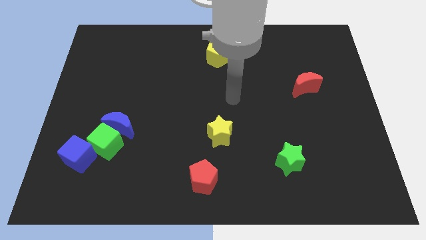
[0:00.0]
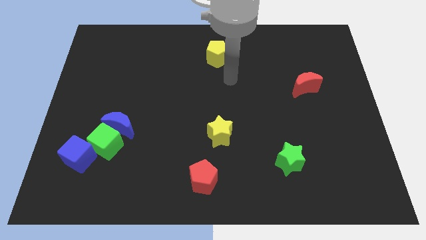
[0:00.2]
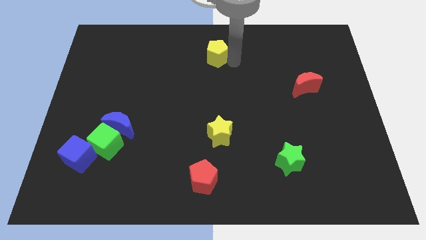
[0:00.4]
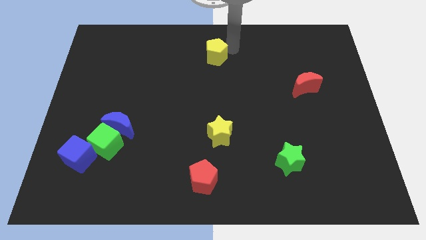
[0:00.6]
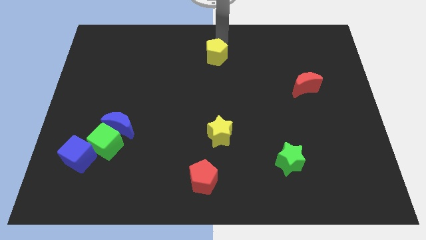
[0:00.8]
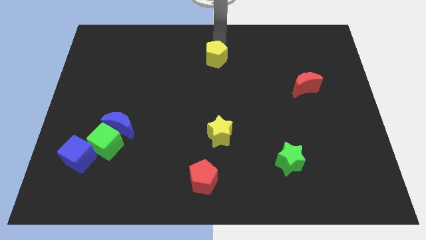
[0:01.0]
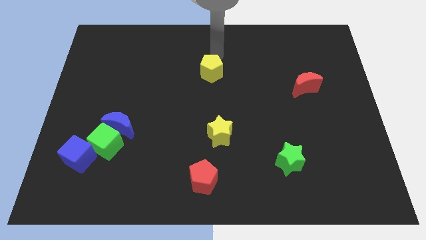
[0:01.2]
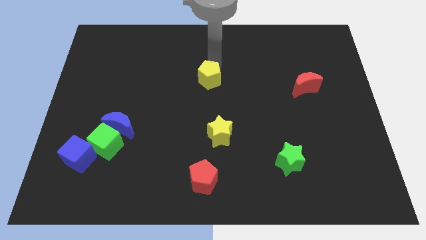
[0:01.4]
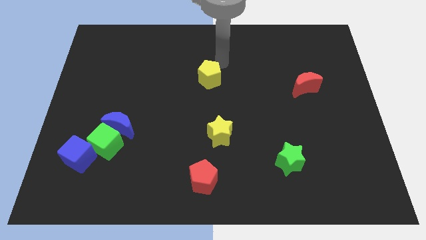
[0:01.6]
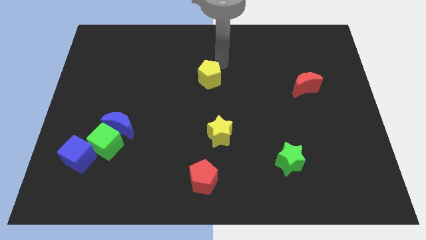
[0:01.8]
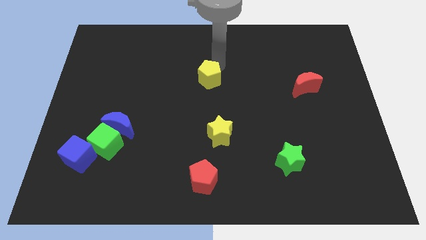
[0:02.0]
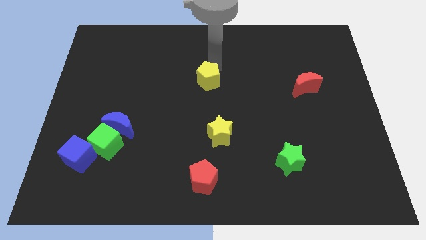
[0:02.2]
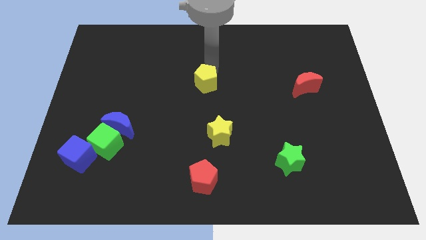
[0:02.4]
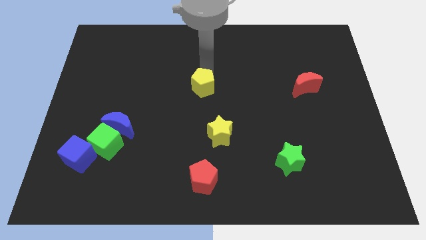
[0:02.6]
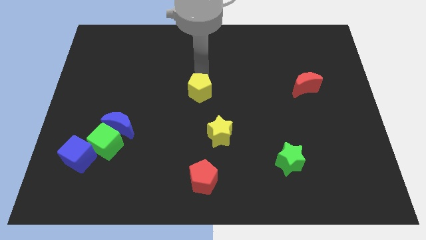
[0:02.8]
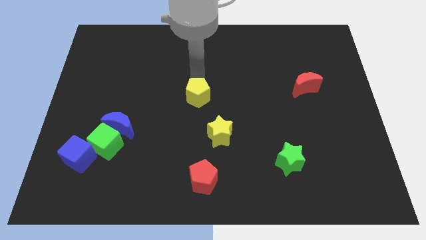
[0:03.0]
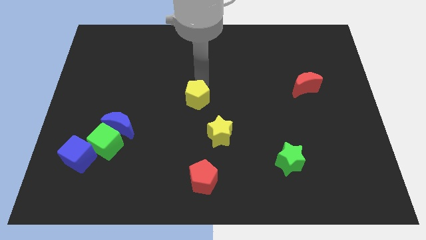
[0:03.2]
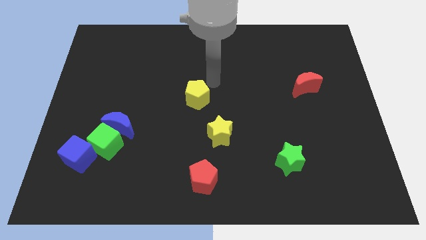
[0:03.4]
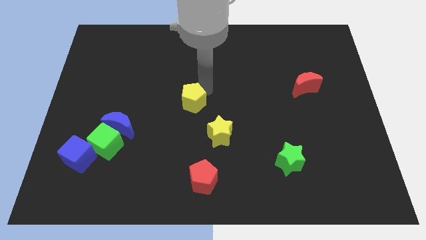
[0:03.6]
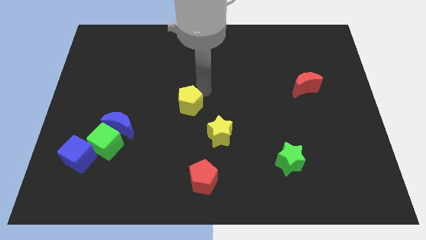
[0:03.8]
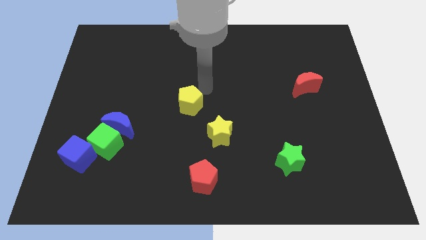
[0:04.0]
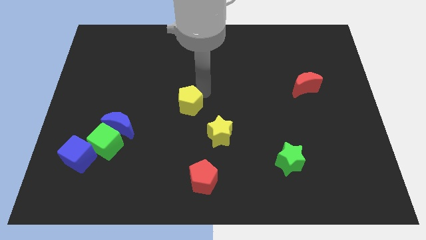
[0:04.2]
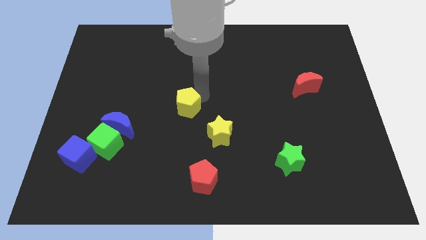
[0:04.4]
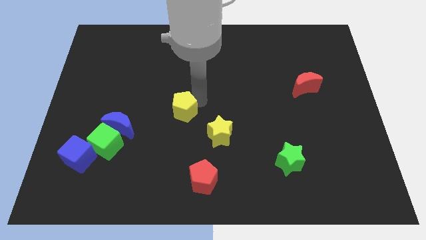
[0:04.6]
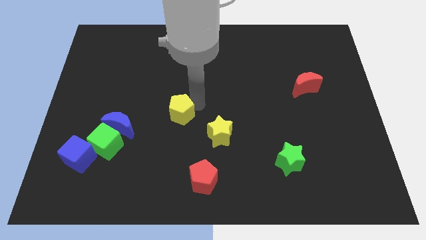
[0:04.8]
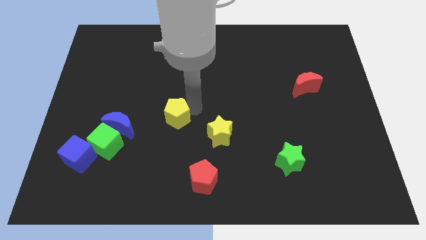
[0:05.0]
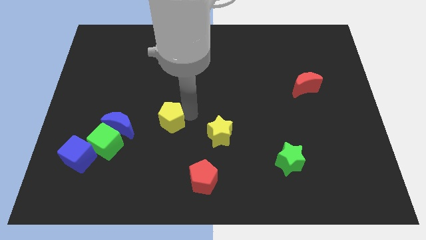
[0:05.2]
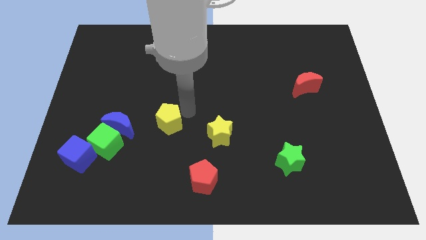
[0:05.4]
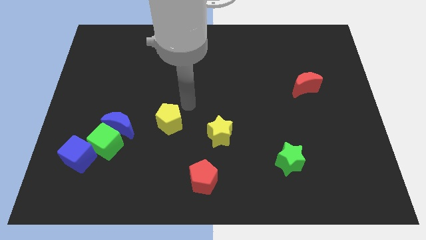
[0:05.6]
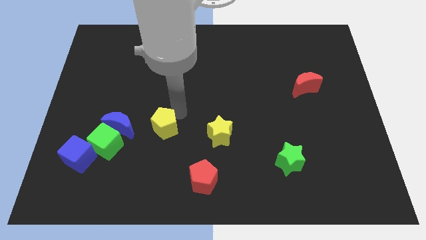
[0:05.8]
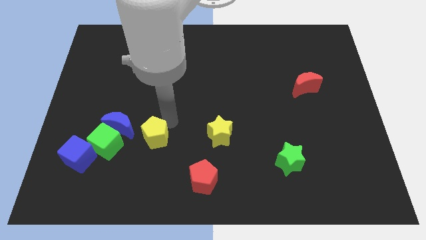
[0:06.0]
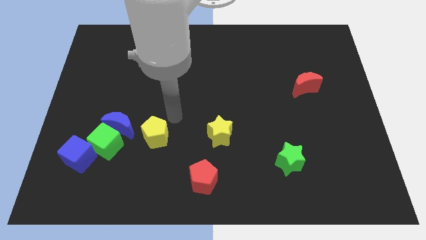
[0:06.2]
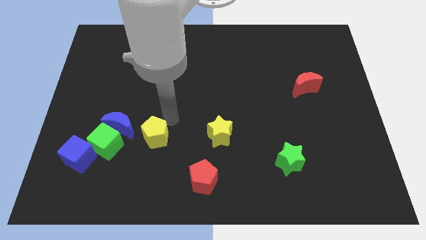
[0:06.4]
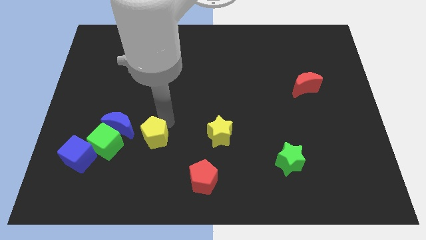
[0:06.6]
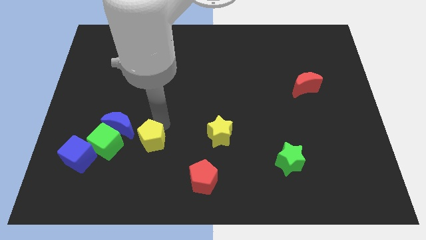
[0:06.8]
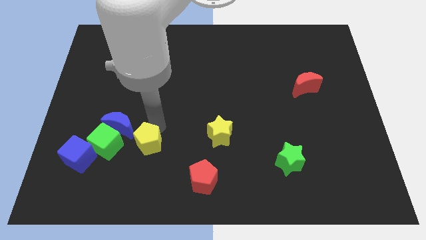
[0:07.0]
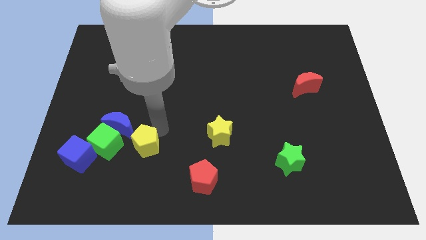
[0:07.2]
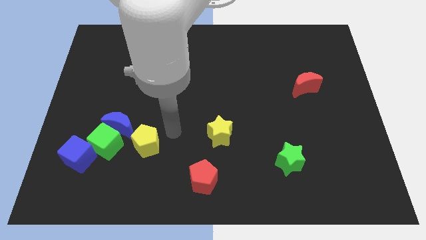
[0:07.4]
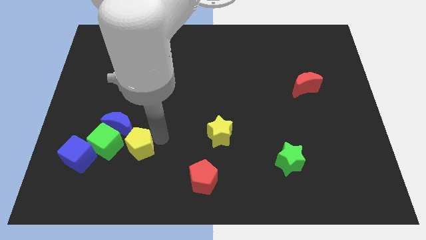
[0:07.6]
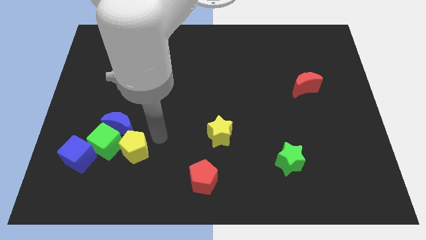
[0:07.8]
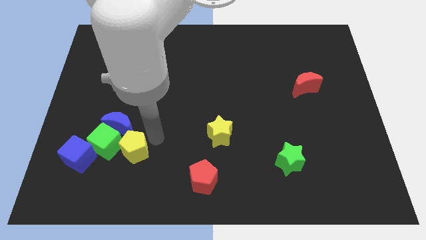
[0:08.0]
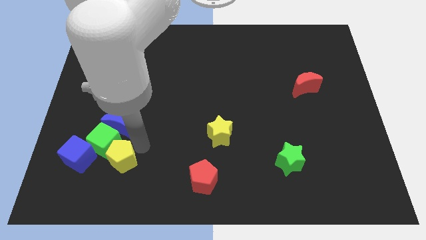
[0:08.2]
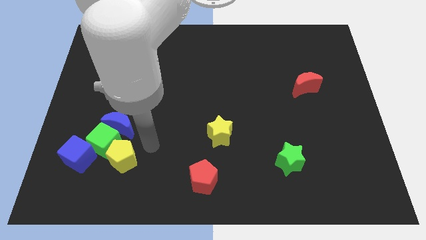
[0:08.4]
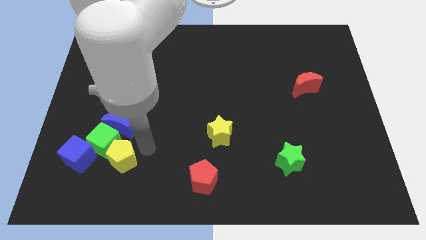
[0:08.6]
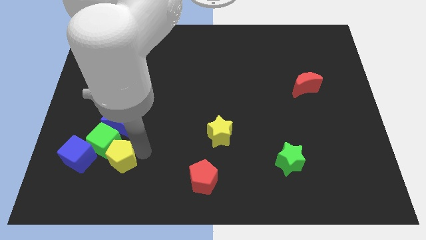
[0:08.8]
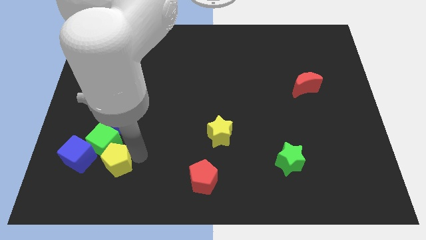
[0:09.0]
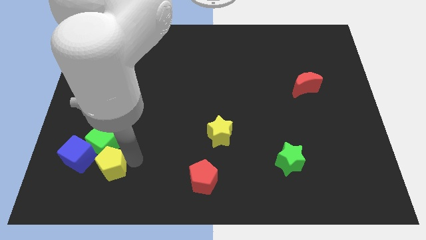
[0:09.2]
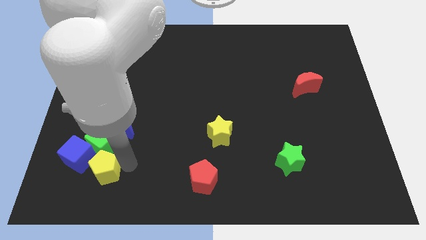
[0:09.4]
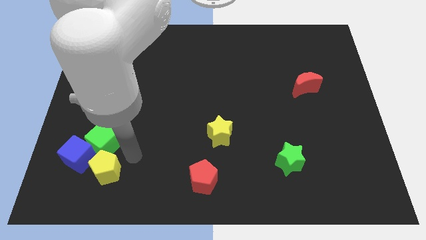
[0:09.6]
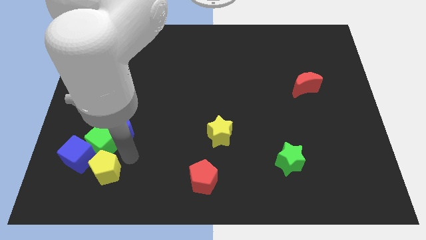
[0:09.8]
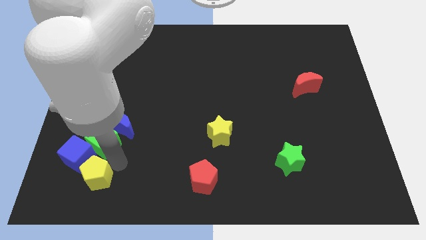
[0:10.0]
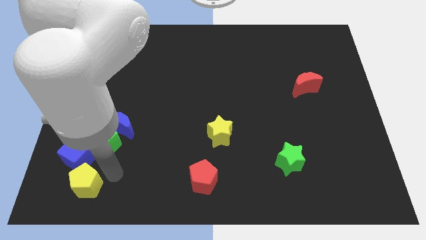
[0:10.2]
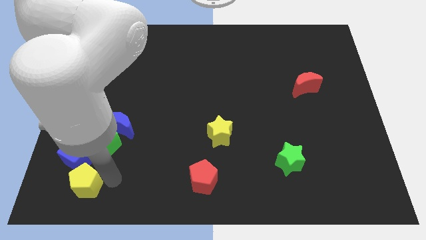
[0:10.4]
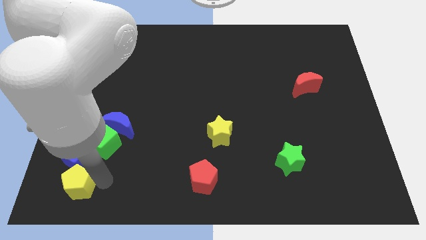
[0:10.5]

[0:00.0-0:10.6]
push the yellow pentagon to the bottom left of the board

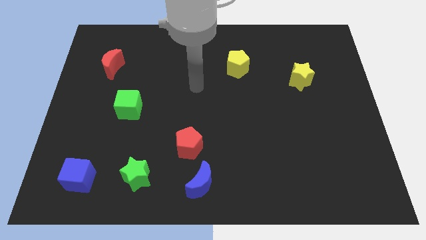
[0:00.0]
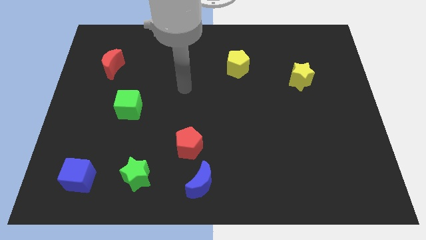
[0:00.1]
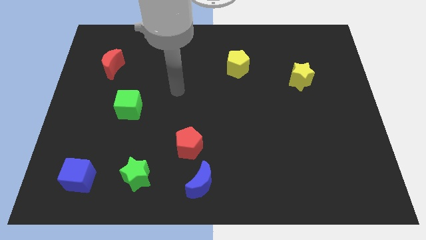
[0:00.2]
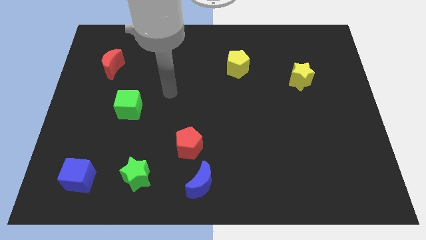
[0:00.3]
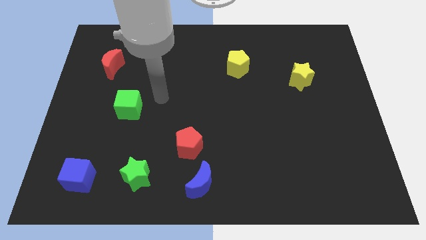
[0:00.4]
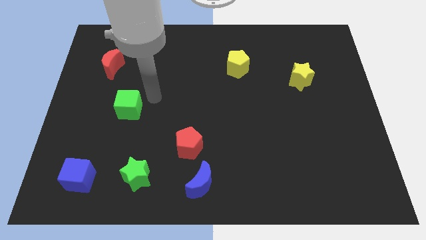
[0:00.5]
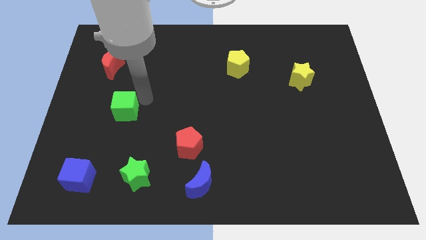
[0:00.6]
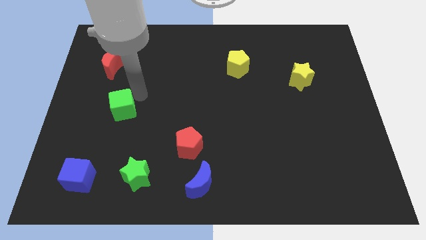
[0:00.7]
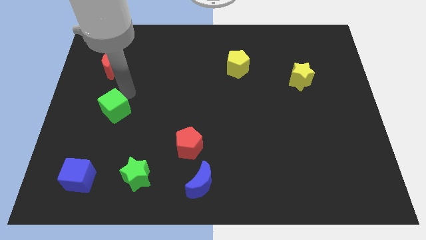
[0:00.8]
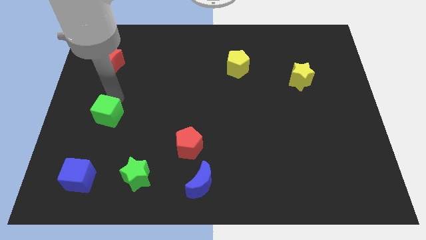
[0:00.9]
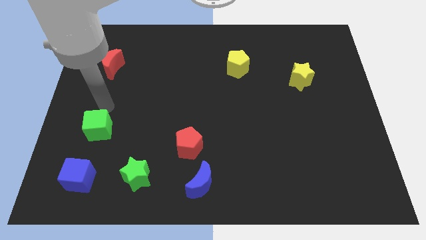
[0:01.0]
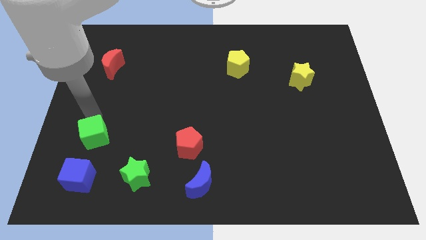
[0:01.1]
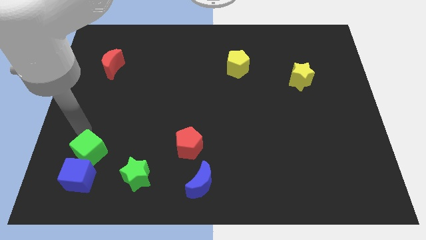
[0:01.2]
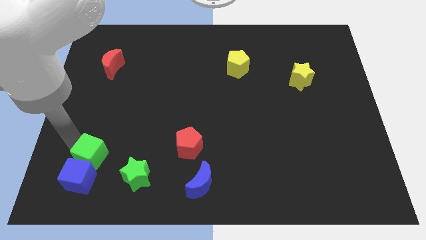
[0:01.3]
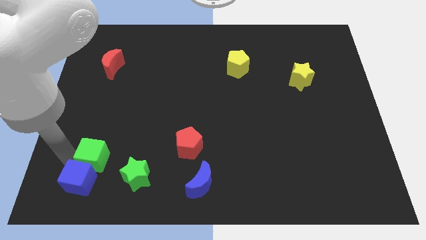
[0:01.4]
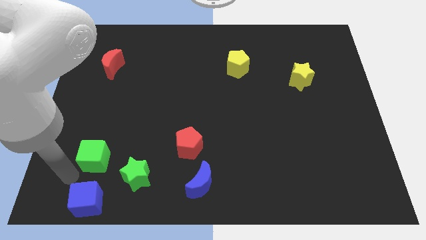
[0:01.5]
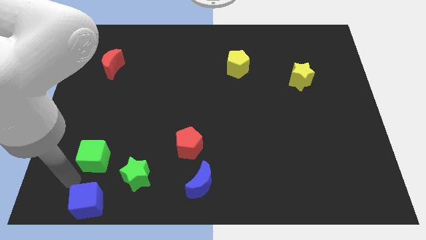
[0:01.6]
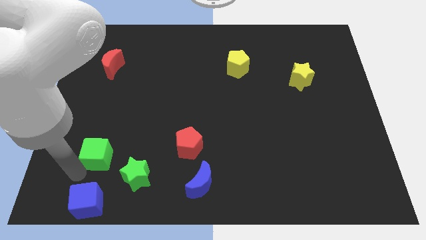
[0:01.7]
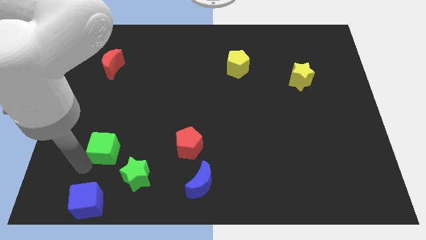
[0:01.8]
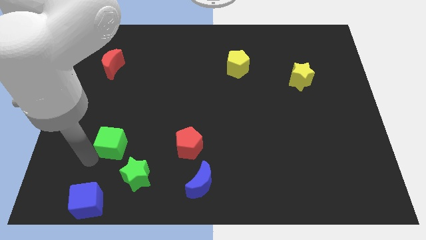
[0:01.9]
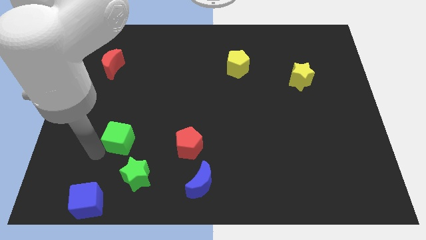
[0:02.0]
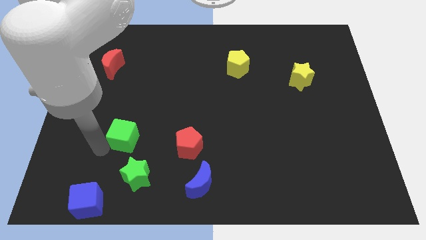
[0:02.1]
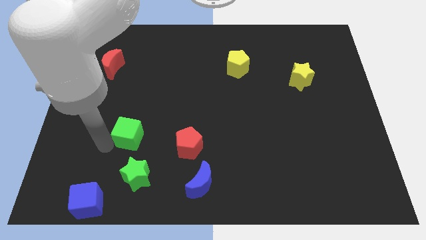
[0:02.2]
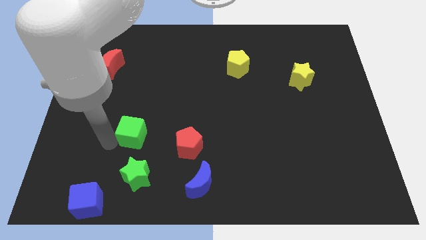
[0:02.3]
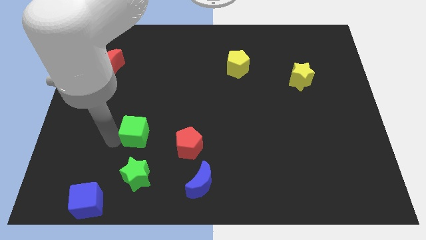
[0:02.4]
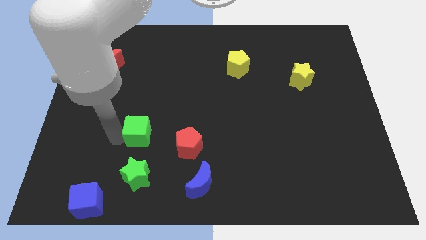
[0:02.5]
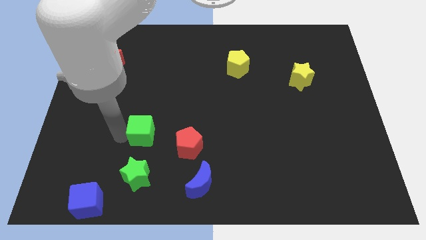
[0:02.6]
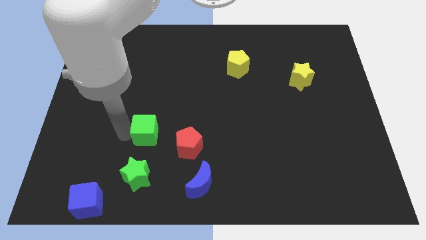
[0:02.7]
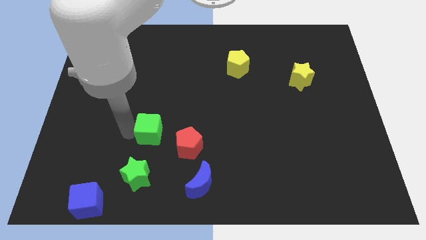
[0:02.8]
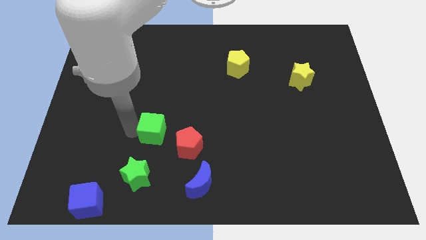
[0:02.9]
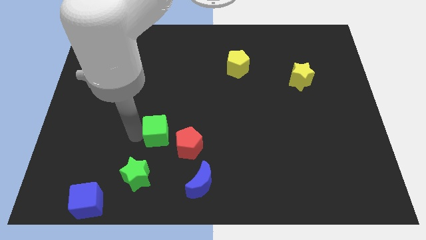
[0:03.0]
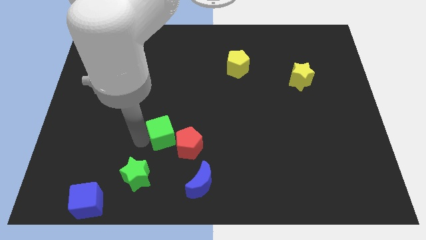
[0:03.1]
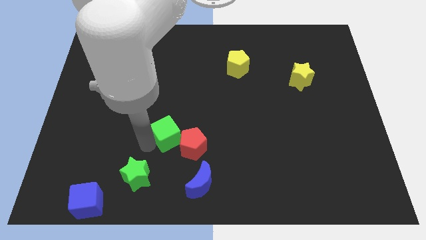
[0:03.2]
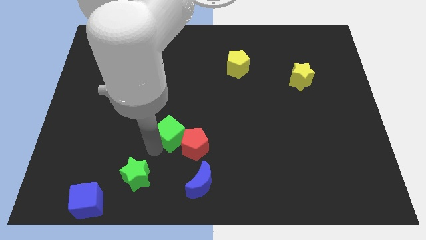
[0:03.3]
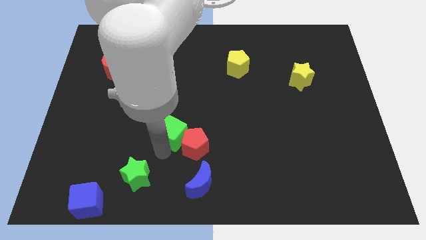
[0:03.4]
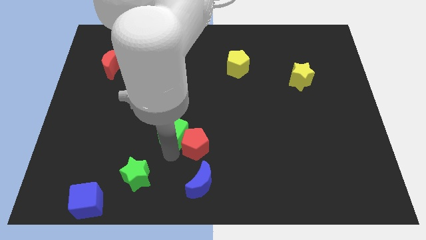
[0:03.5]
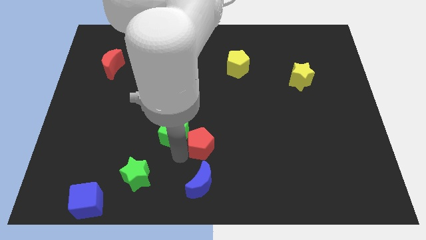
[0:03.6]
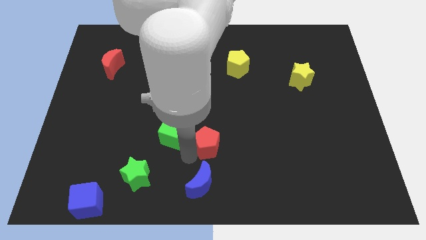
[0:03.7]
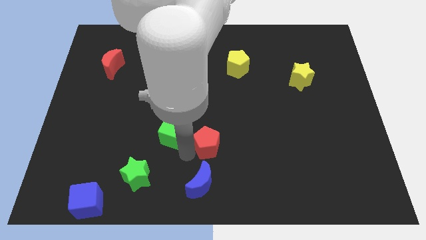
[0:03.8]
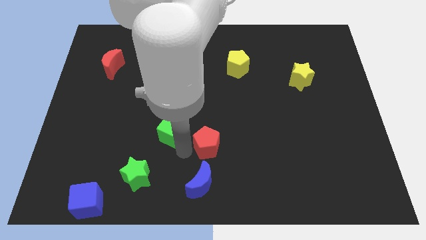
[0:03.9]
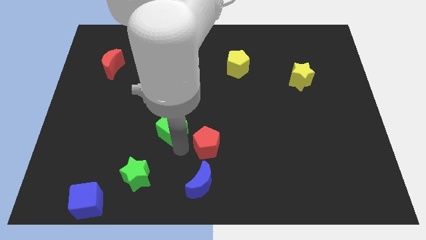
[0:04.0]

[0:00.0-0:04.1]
move the green cube to the middle of the board
